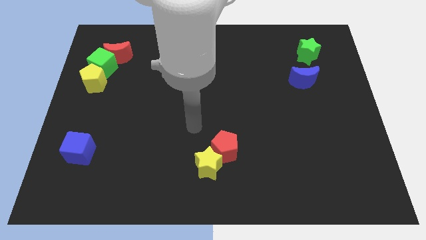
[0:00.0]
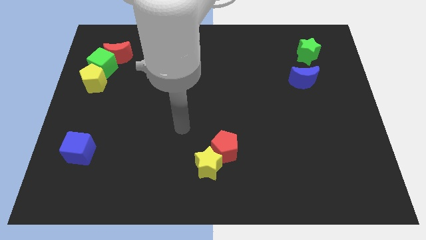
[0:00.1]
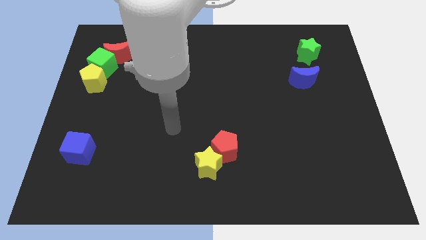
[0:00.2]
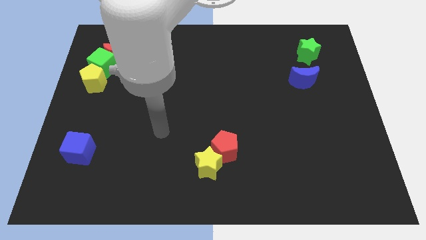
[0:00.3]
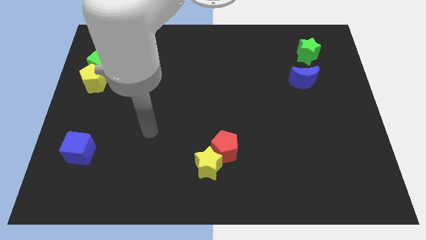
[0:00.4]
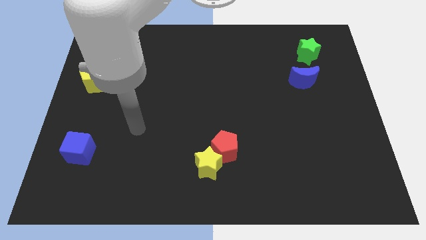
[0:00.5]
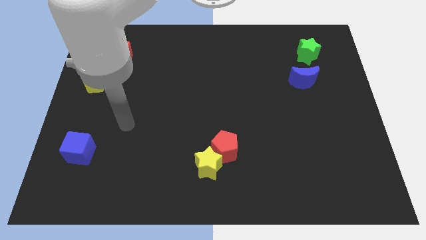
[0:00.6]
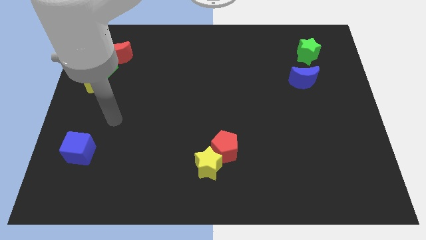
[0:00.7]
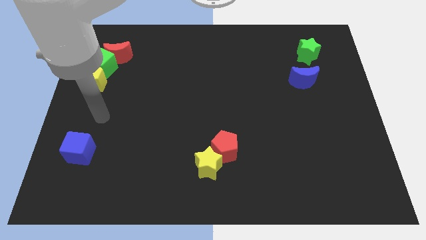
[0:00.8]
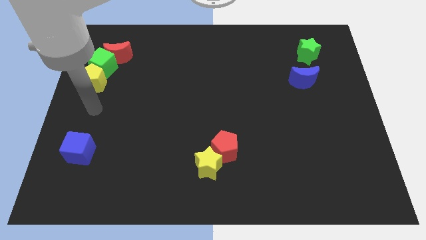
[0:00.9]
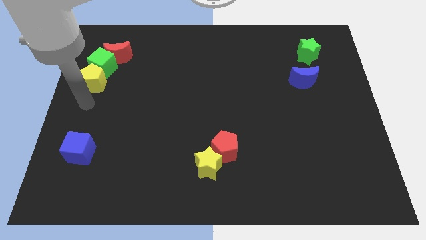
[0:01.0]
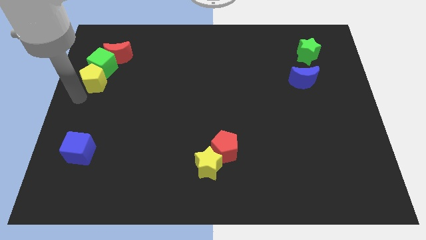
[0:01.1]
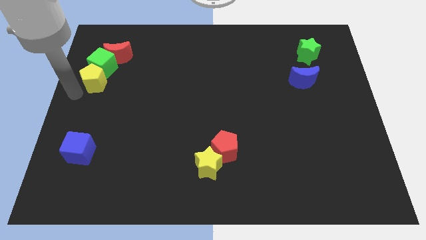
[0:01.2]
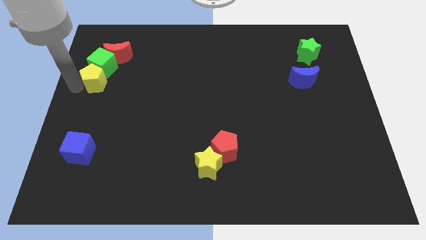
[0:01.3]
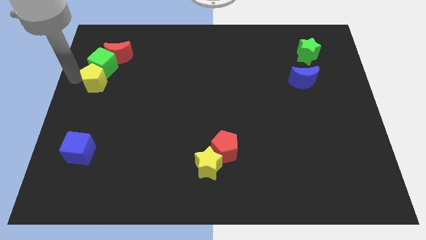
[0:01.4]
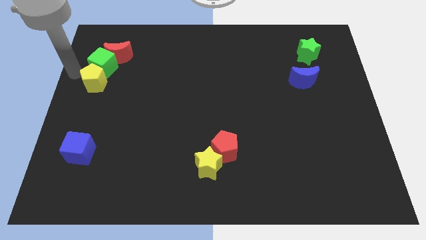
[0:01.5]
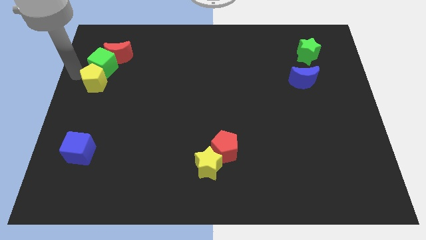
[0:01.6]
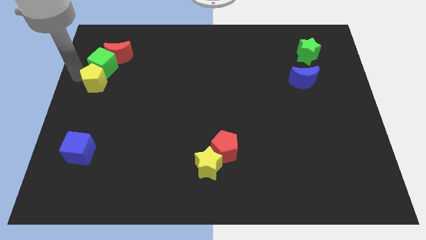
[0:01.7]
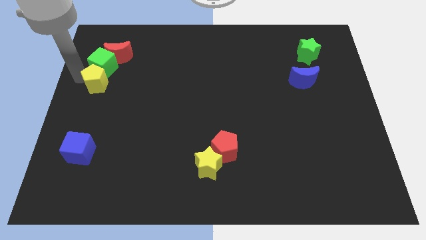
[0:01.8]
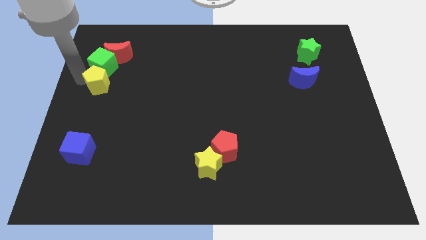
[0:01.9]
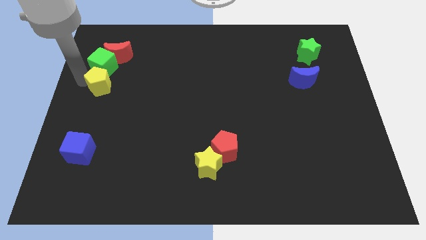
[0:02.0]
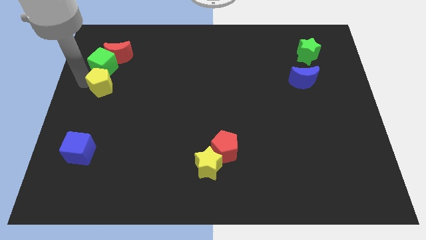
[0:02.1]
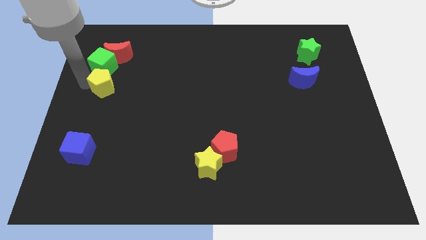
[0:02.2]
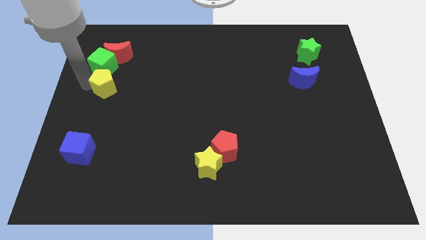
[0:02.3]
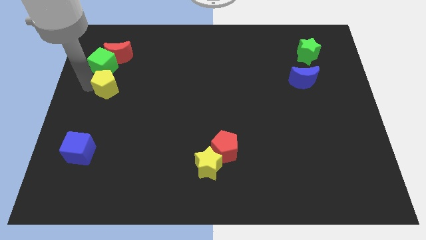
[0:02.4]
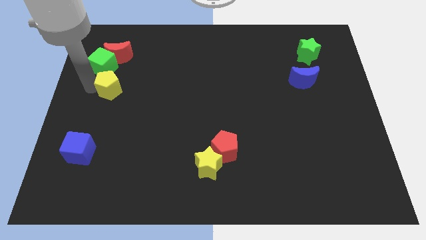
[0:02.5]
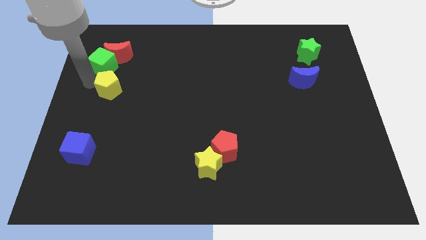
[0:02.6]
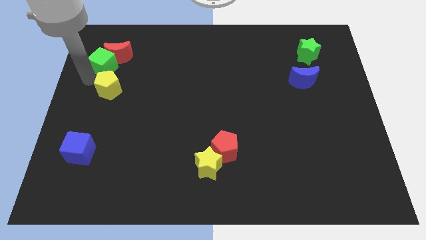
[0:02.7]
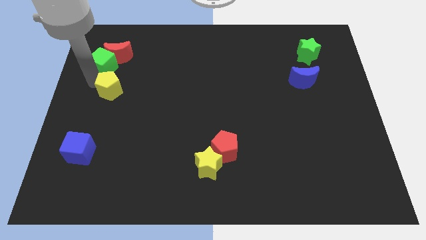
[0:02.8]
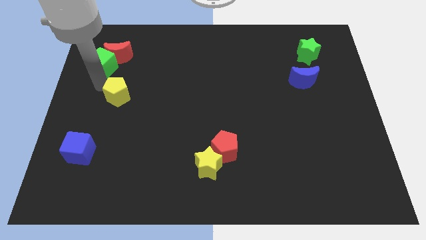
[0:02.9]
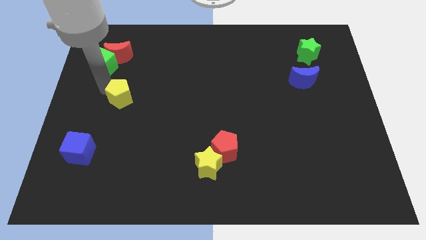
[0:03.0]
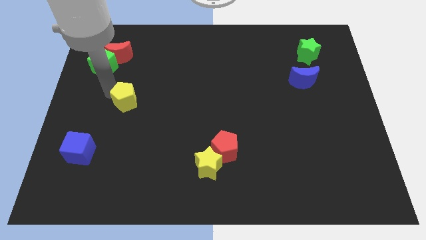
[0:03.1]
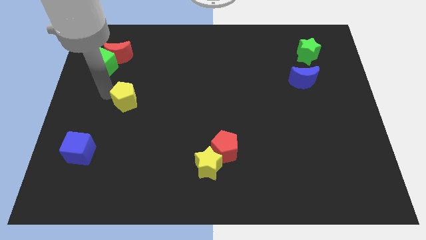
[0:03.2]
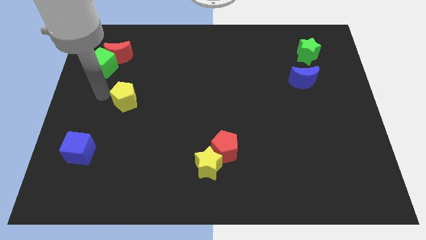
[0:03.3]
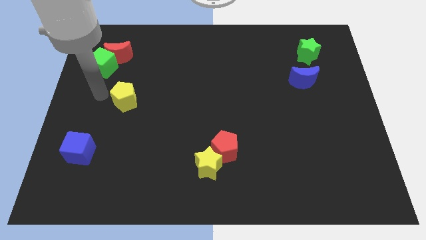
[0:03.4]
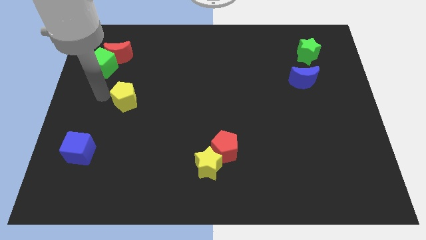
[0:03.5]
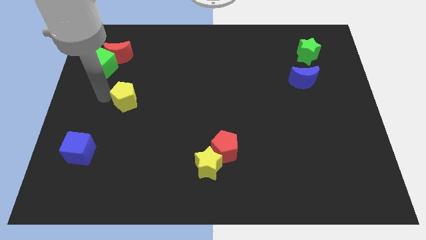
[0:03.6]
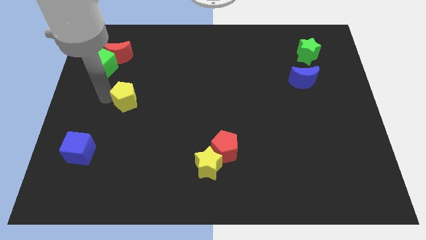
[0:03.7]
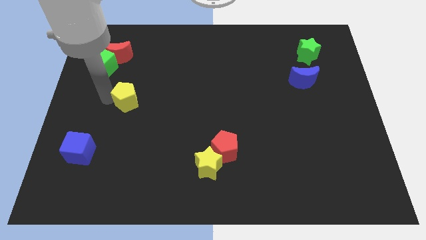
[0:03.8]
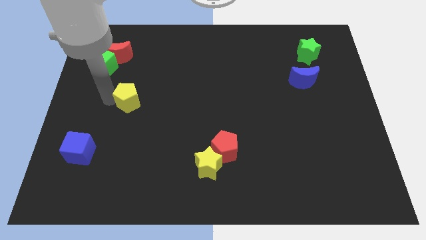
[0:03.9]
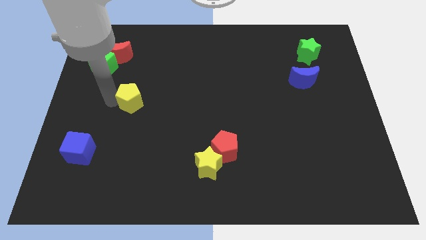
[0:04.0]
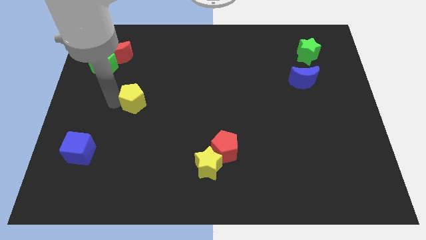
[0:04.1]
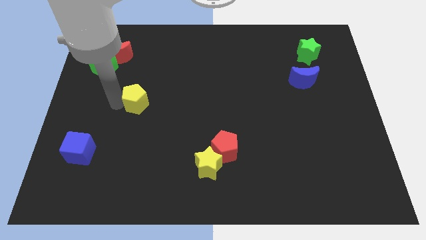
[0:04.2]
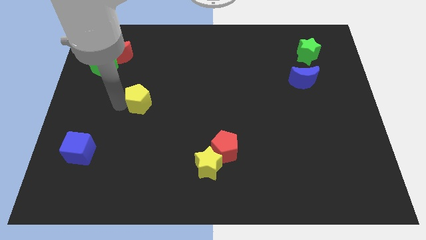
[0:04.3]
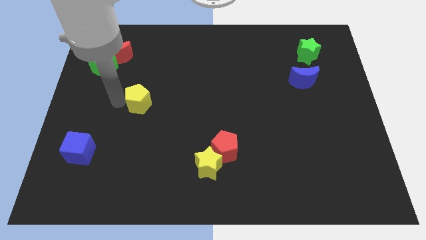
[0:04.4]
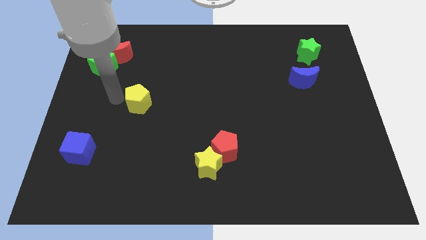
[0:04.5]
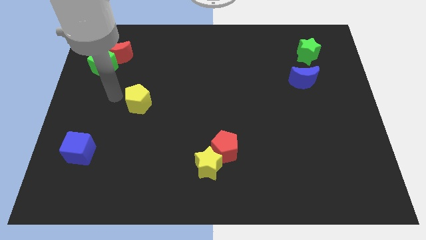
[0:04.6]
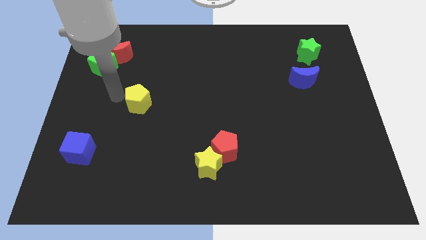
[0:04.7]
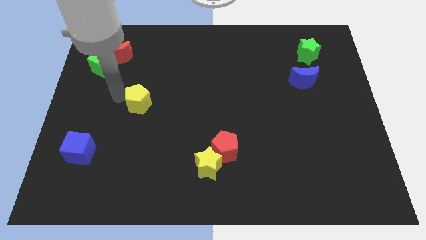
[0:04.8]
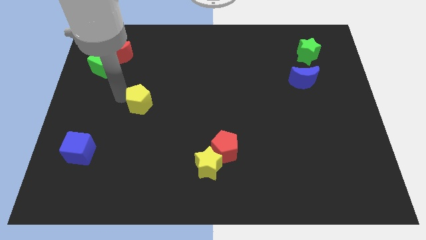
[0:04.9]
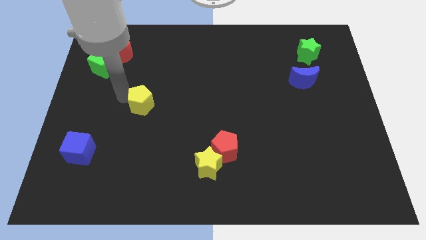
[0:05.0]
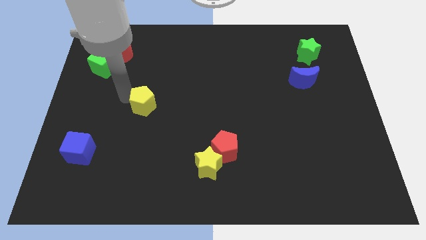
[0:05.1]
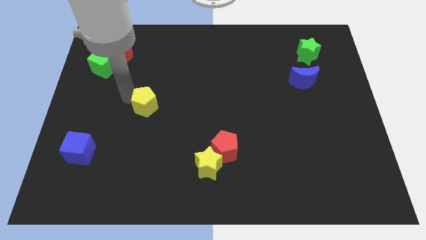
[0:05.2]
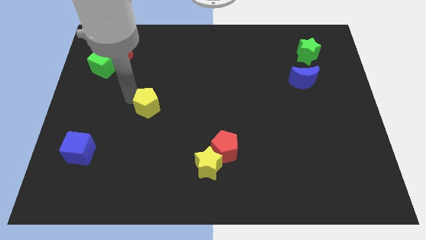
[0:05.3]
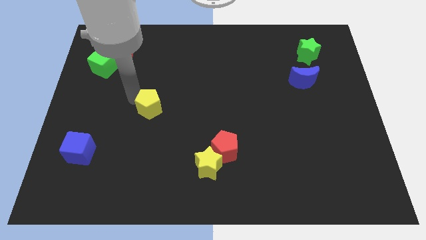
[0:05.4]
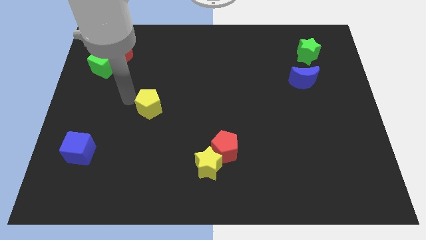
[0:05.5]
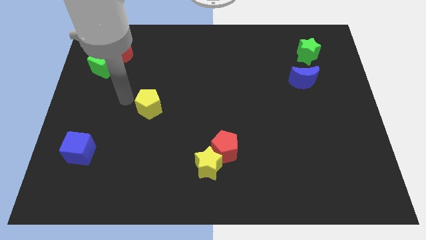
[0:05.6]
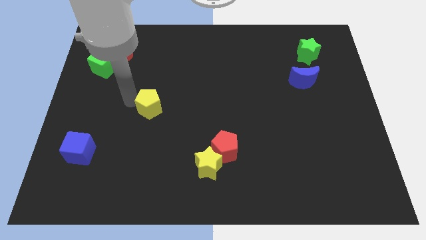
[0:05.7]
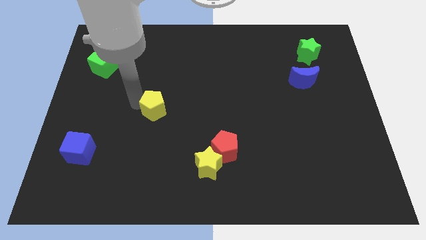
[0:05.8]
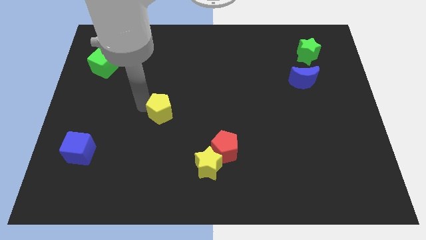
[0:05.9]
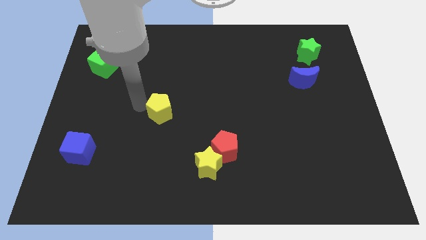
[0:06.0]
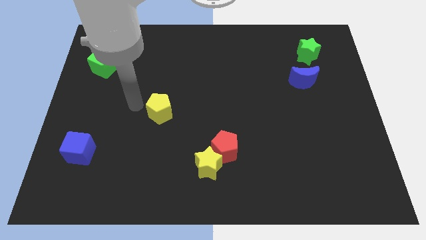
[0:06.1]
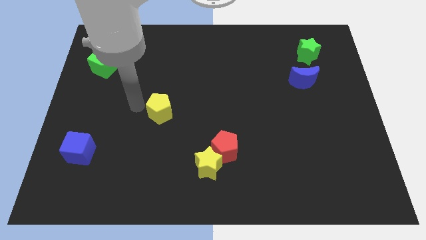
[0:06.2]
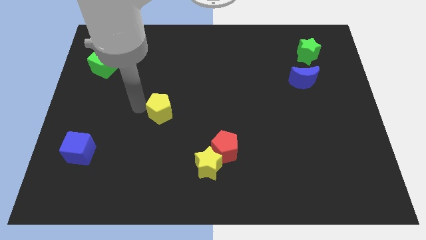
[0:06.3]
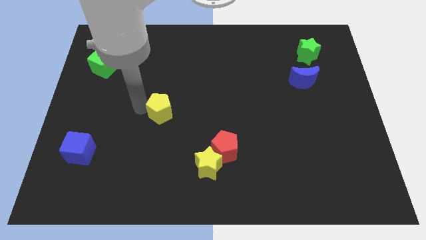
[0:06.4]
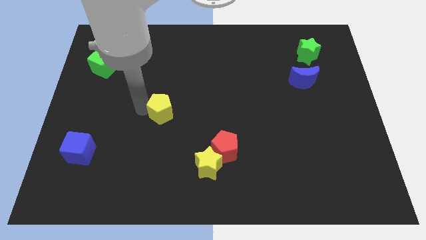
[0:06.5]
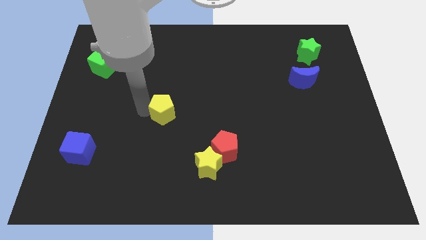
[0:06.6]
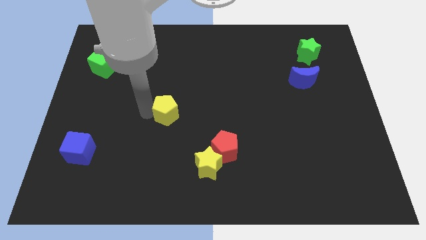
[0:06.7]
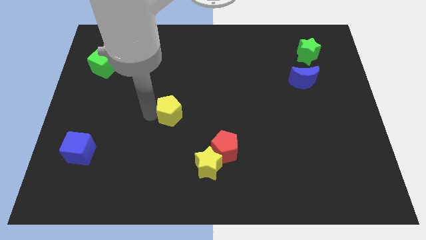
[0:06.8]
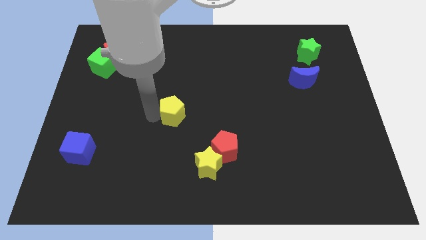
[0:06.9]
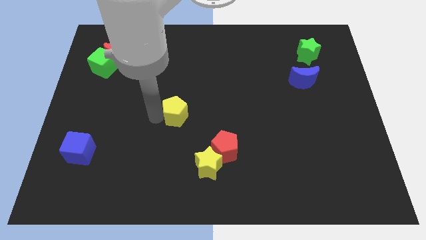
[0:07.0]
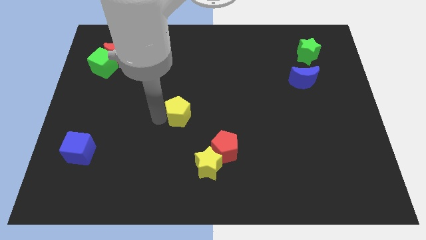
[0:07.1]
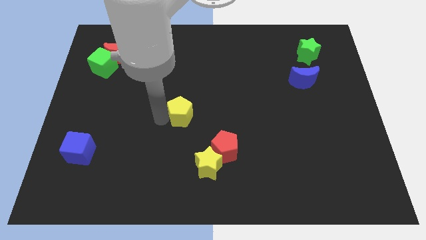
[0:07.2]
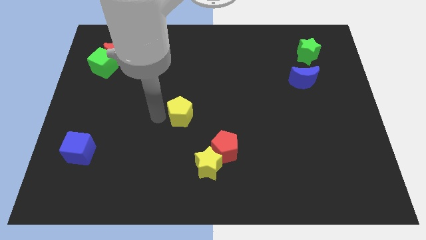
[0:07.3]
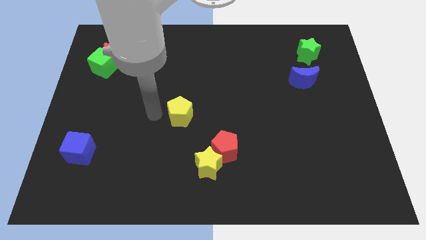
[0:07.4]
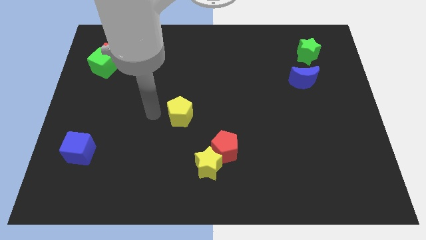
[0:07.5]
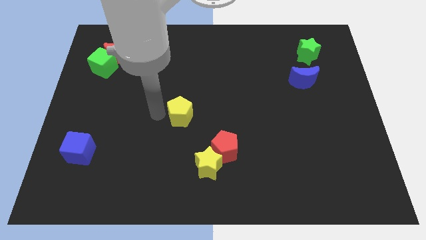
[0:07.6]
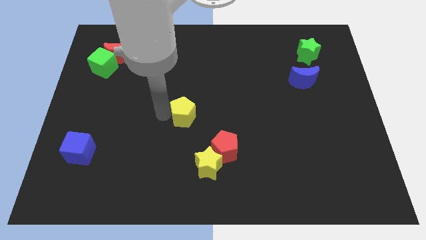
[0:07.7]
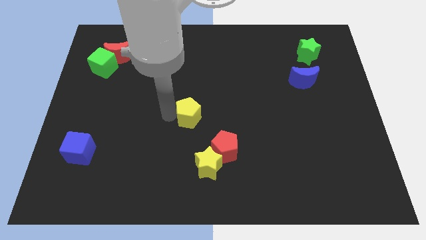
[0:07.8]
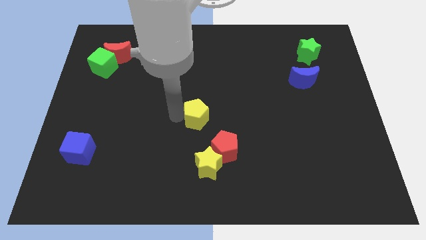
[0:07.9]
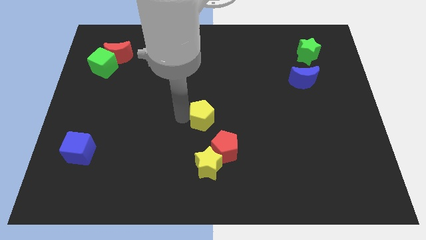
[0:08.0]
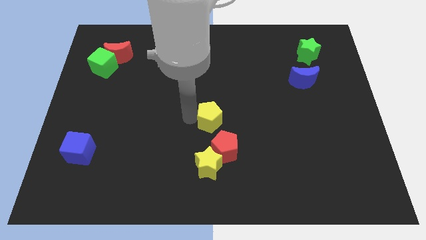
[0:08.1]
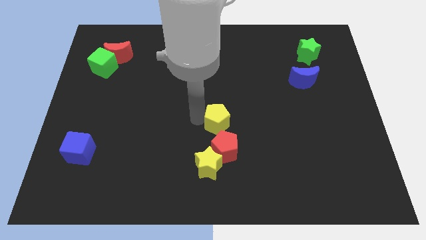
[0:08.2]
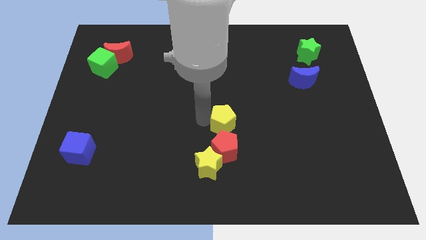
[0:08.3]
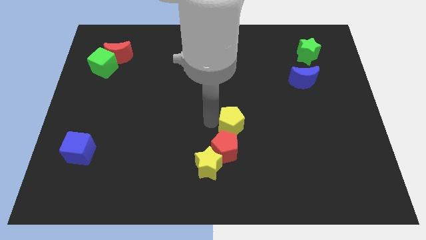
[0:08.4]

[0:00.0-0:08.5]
push the yellow pentagon to the top right side of the red pentagon
